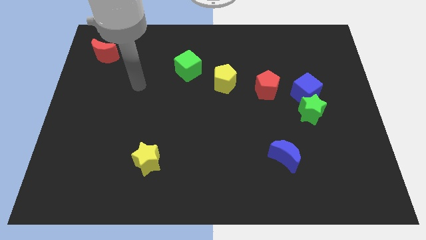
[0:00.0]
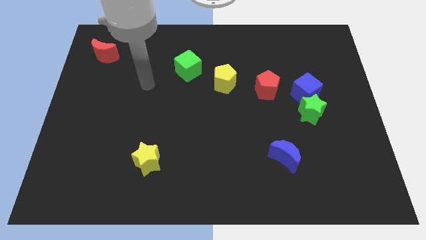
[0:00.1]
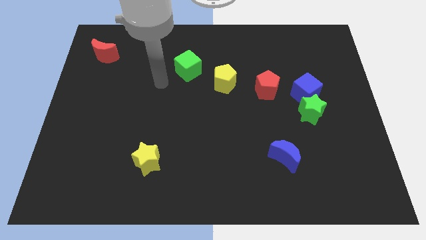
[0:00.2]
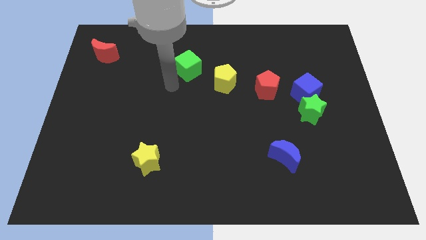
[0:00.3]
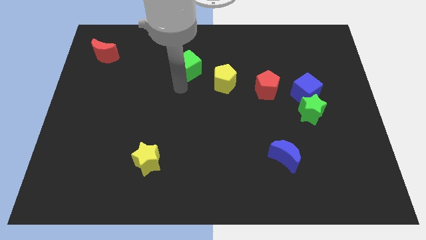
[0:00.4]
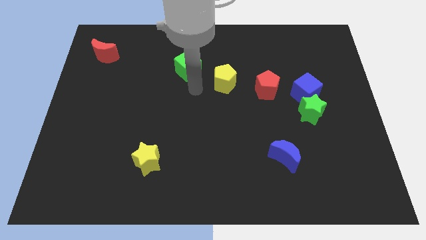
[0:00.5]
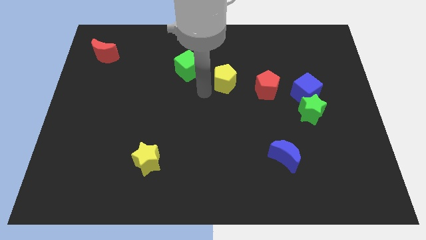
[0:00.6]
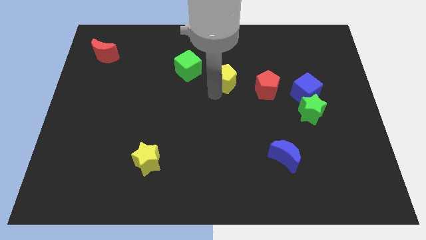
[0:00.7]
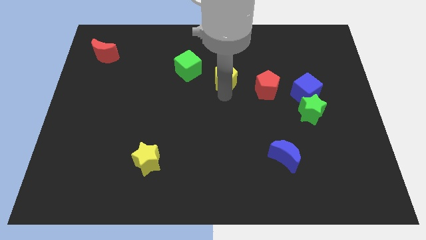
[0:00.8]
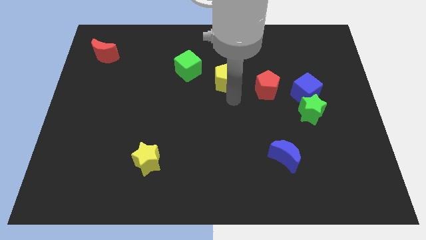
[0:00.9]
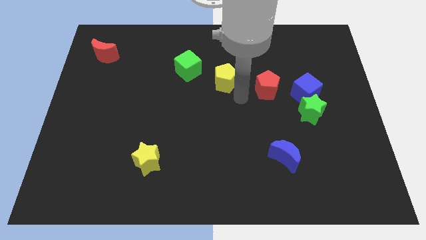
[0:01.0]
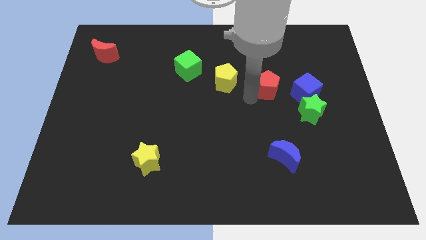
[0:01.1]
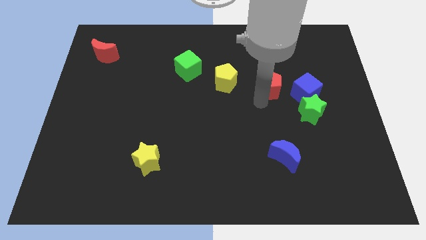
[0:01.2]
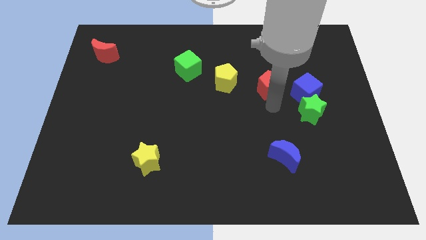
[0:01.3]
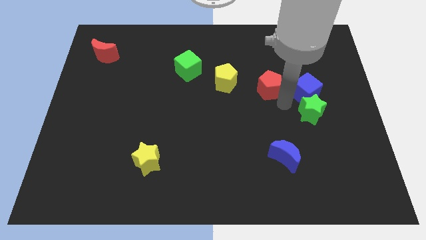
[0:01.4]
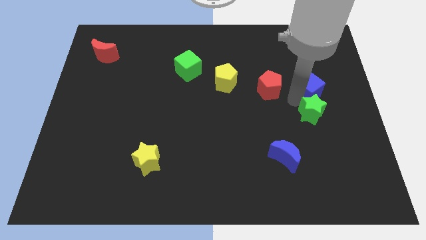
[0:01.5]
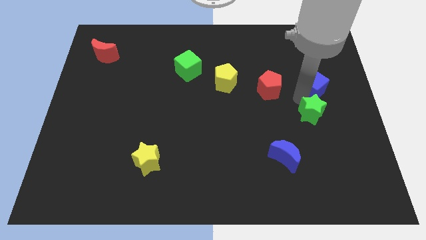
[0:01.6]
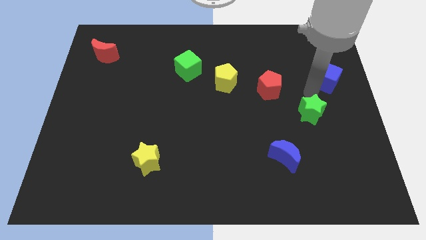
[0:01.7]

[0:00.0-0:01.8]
separate the green star from the blue cube

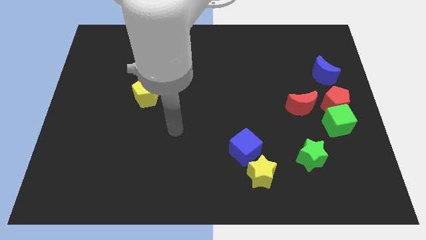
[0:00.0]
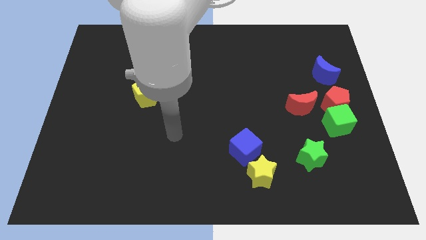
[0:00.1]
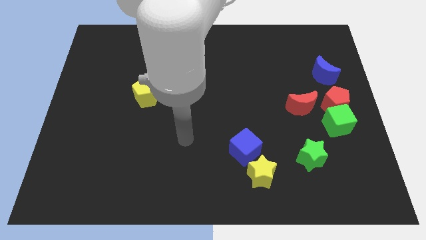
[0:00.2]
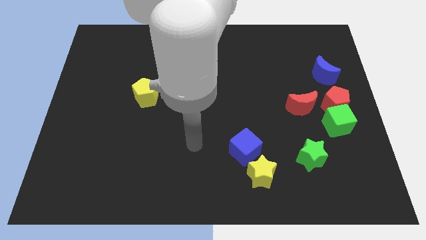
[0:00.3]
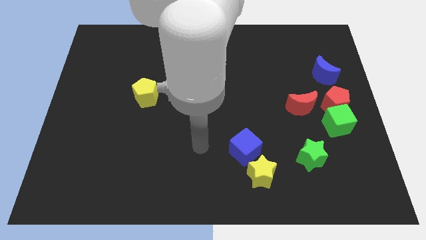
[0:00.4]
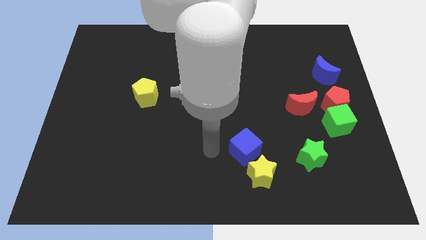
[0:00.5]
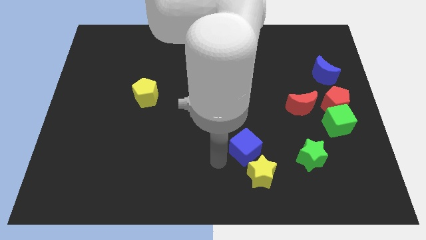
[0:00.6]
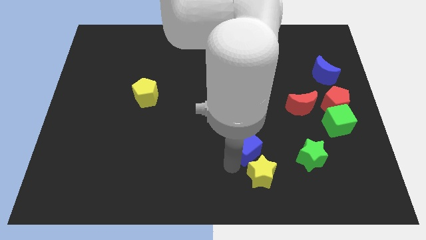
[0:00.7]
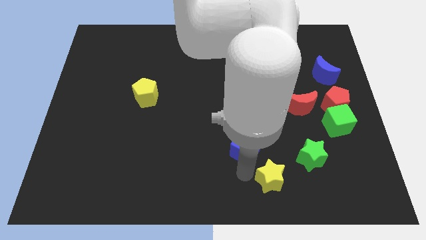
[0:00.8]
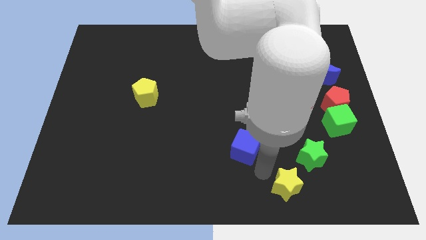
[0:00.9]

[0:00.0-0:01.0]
move the blue cube away from the yellow star

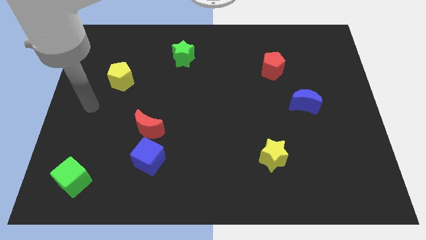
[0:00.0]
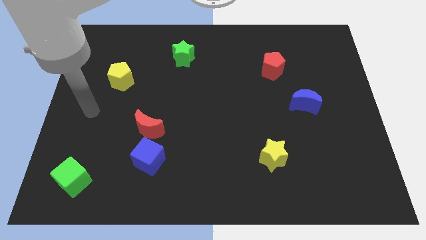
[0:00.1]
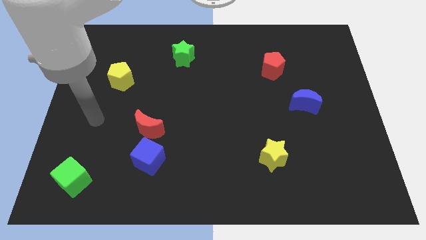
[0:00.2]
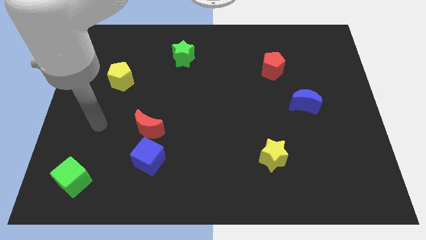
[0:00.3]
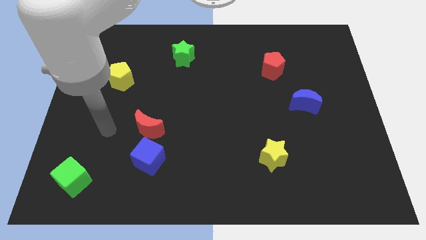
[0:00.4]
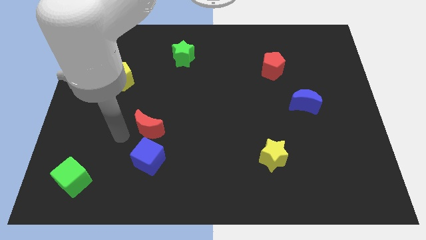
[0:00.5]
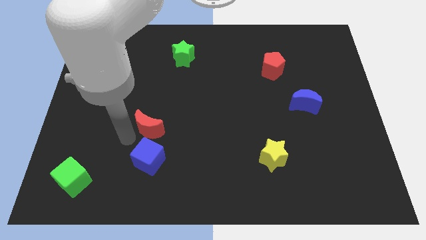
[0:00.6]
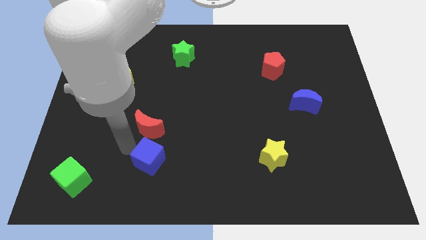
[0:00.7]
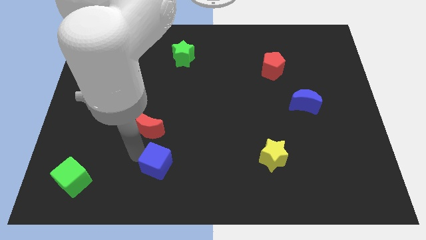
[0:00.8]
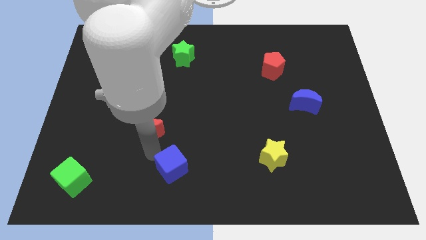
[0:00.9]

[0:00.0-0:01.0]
pull the red moon apart from the blue cube

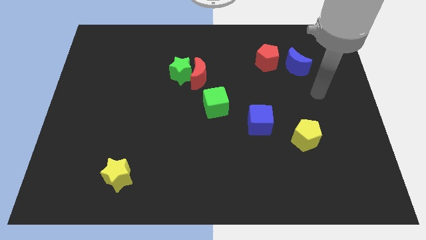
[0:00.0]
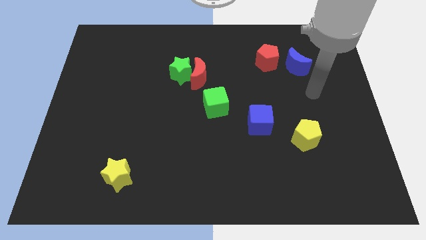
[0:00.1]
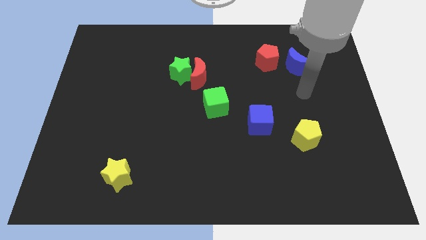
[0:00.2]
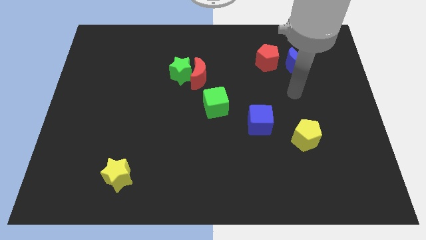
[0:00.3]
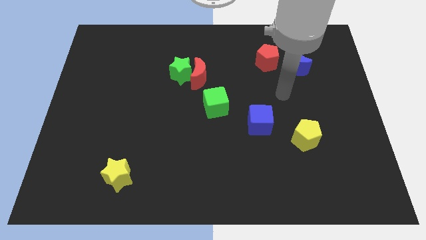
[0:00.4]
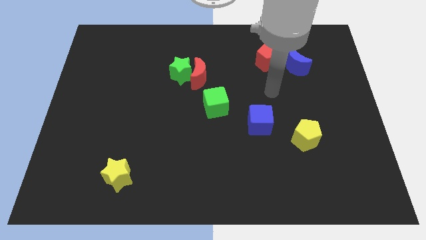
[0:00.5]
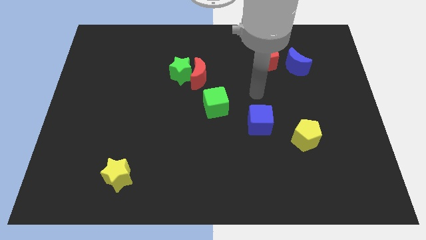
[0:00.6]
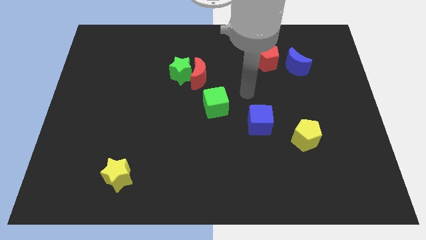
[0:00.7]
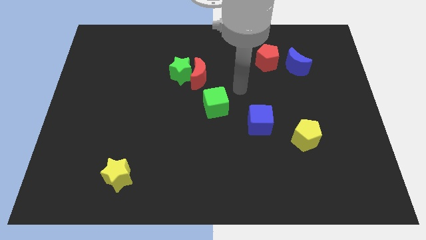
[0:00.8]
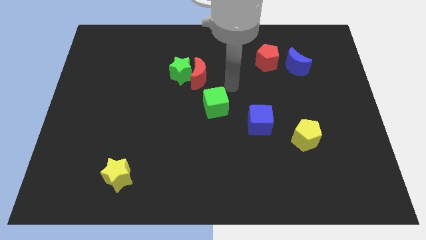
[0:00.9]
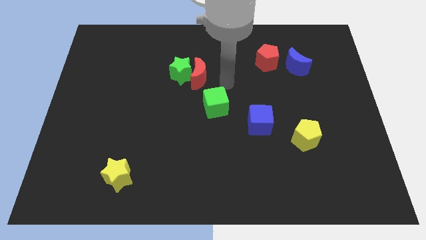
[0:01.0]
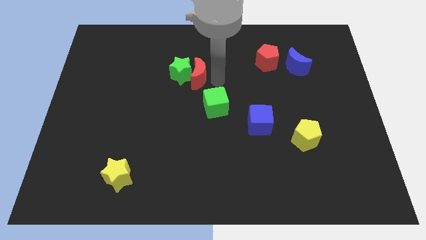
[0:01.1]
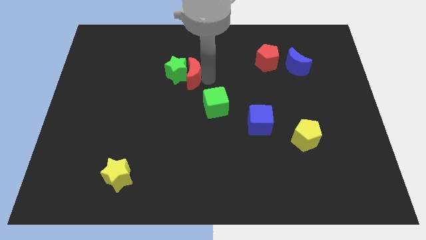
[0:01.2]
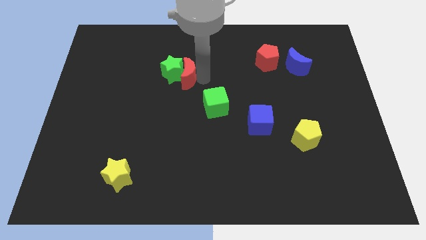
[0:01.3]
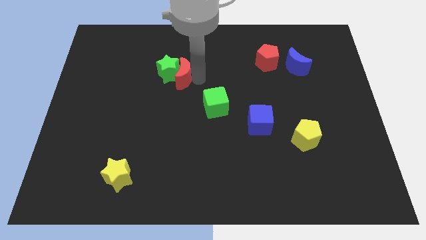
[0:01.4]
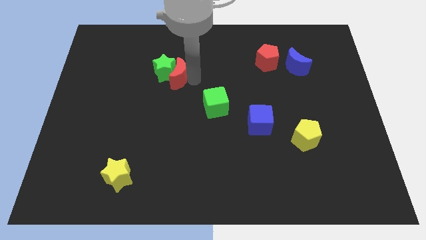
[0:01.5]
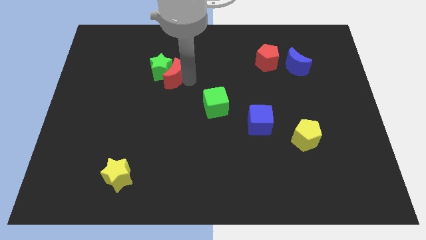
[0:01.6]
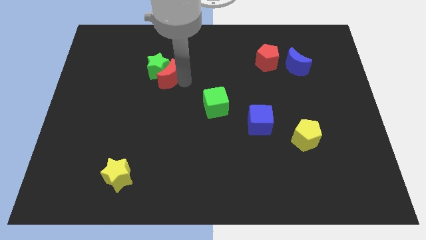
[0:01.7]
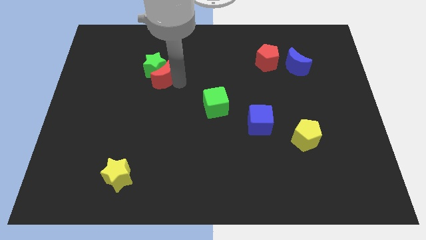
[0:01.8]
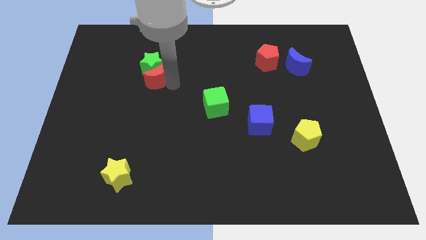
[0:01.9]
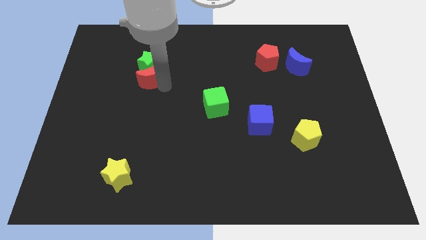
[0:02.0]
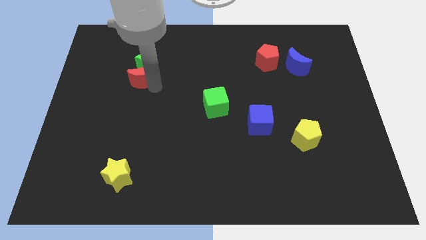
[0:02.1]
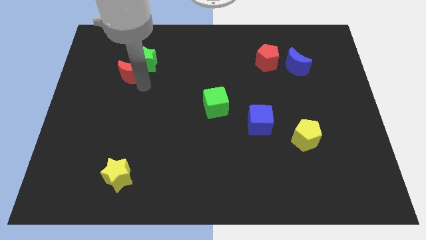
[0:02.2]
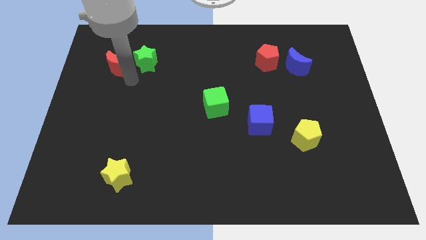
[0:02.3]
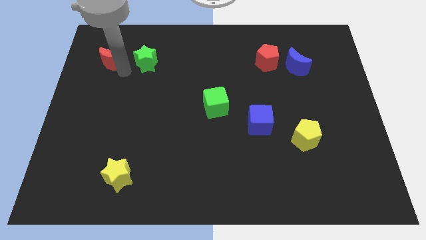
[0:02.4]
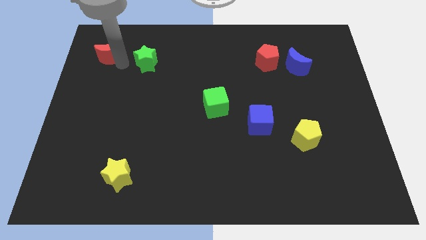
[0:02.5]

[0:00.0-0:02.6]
pull the green star apart from the red moon

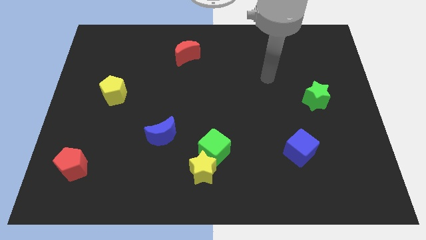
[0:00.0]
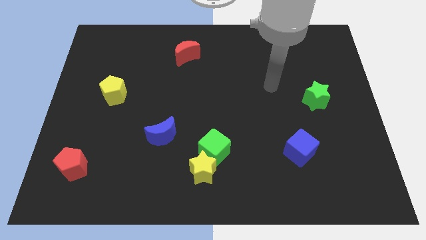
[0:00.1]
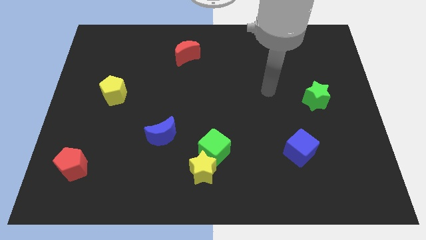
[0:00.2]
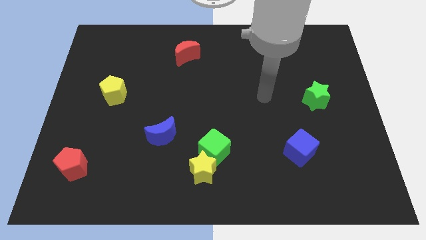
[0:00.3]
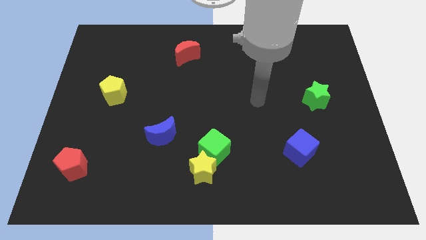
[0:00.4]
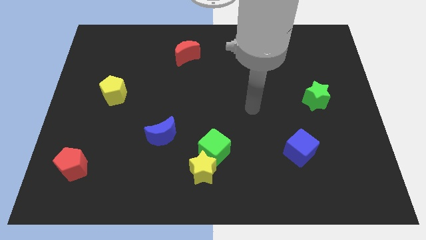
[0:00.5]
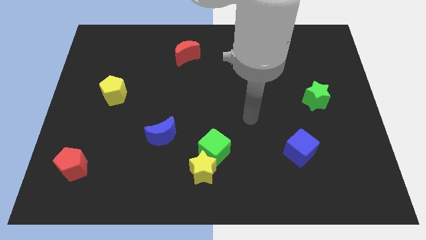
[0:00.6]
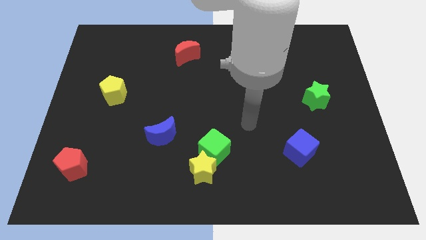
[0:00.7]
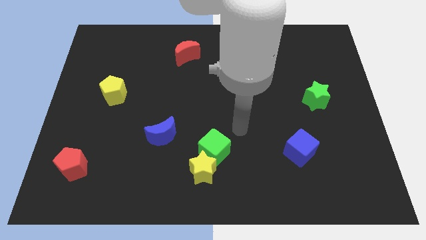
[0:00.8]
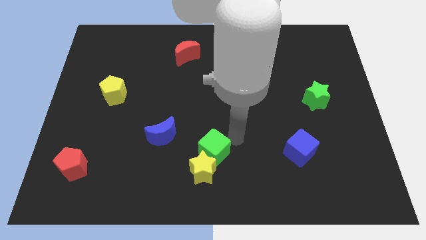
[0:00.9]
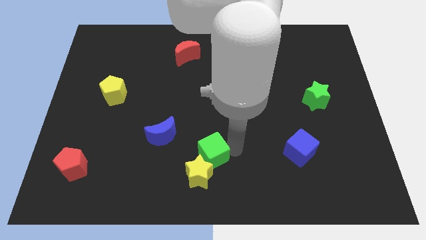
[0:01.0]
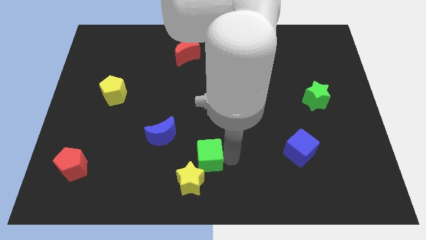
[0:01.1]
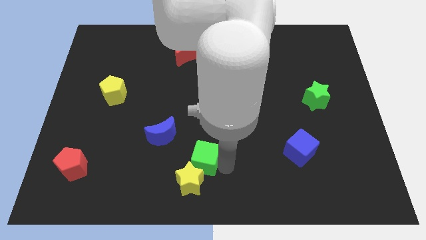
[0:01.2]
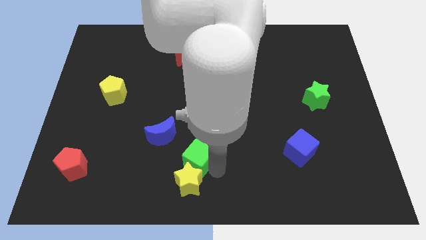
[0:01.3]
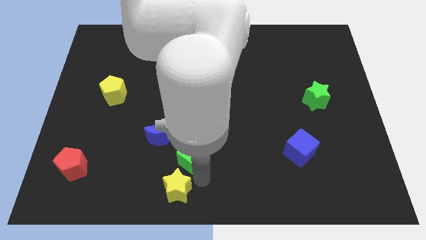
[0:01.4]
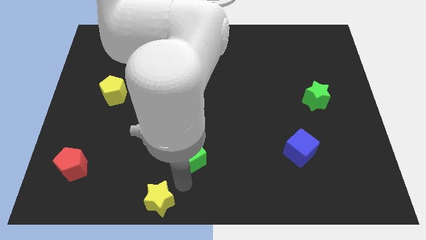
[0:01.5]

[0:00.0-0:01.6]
pull the green cube apart from the yellow star

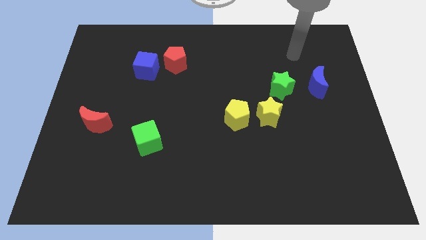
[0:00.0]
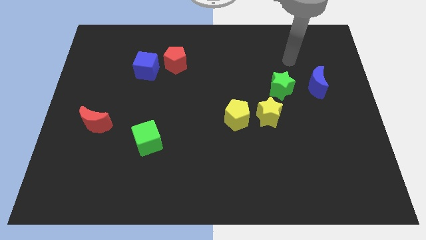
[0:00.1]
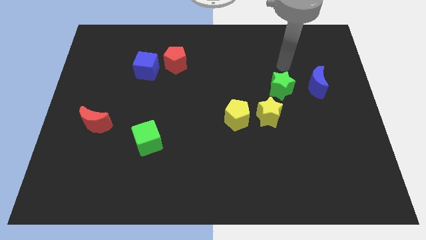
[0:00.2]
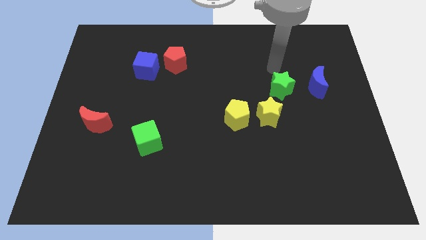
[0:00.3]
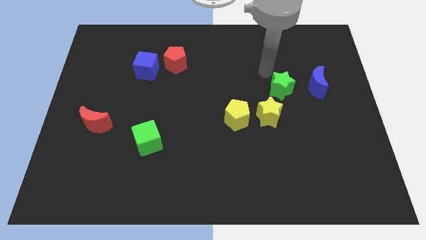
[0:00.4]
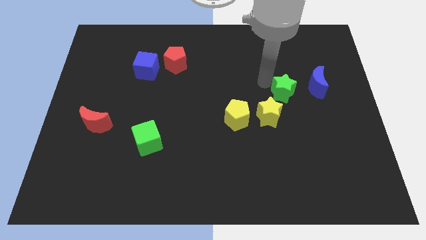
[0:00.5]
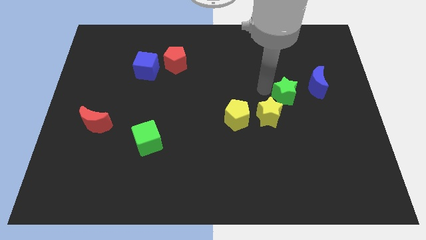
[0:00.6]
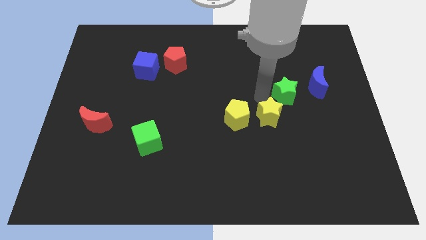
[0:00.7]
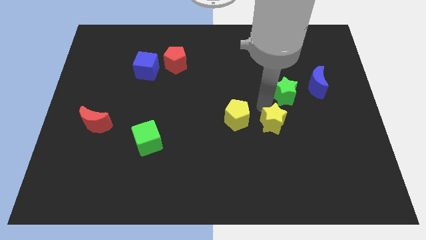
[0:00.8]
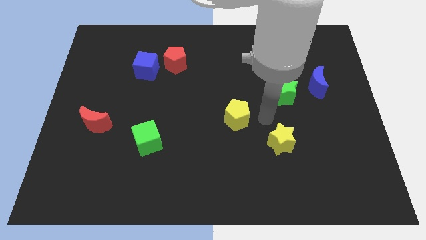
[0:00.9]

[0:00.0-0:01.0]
separate the yellow pentagon from the yellow star

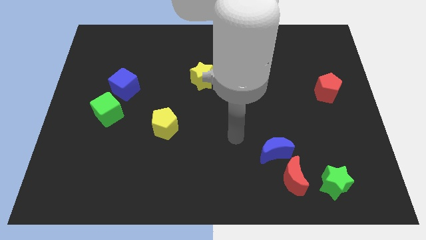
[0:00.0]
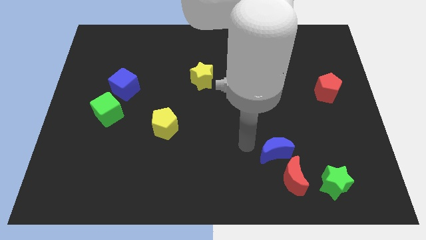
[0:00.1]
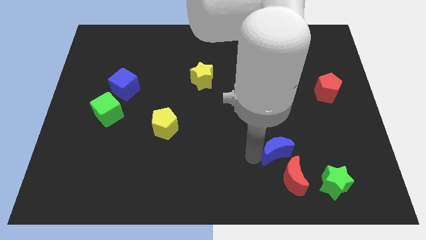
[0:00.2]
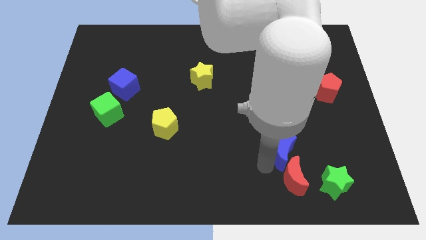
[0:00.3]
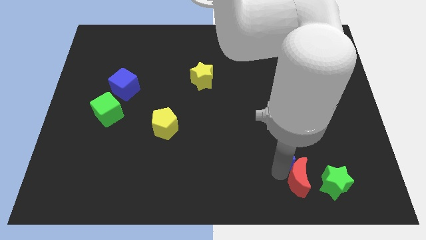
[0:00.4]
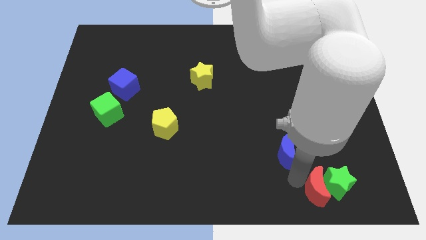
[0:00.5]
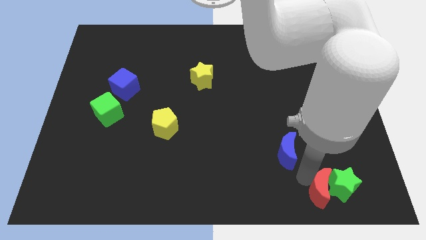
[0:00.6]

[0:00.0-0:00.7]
separate the blue moon from the red moon
